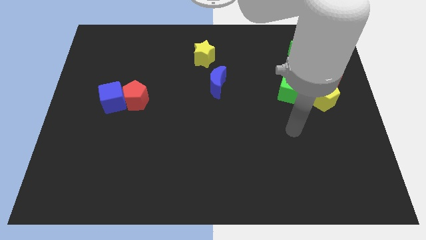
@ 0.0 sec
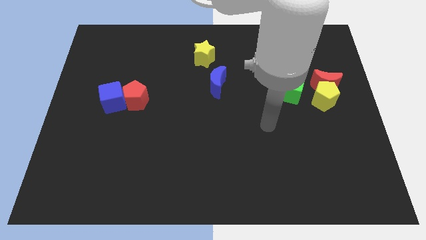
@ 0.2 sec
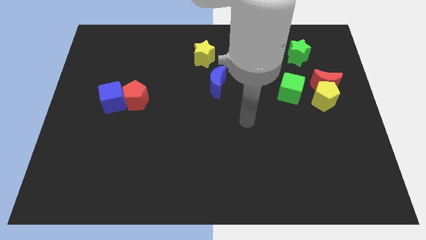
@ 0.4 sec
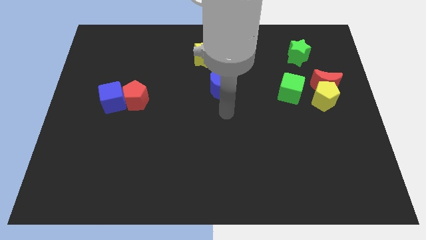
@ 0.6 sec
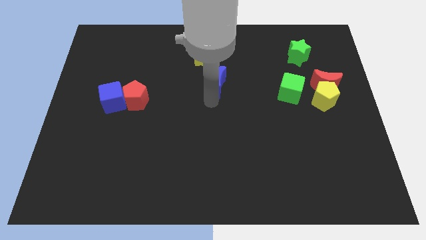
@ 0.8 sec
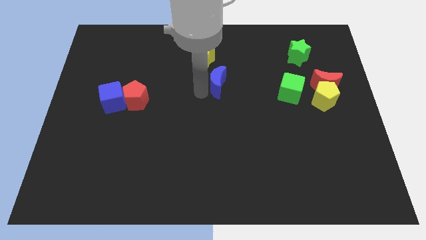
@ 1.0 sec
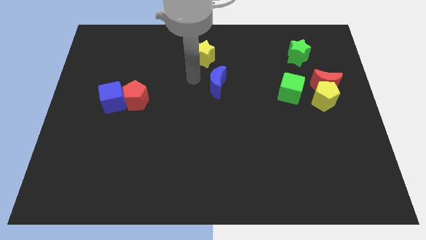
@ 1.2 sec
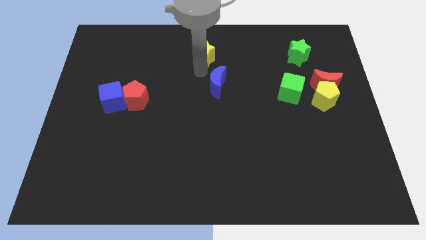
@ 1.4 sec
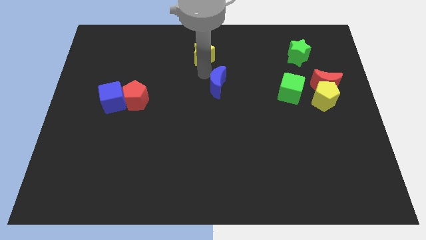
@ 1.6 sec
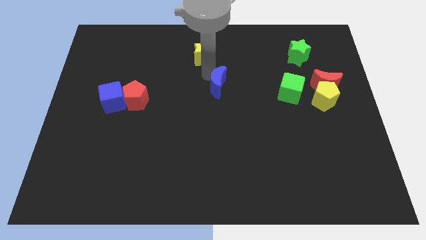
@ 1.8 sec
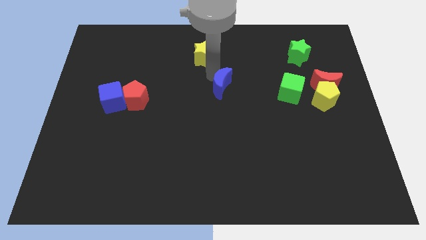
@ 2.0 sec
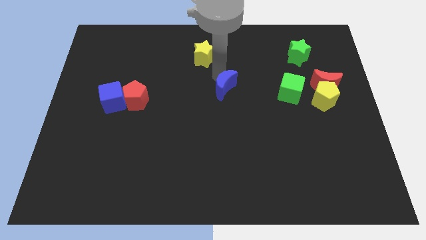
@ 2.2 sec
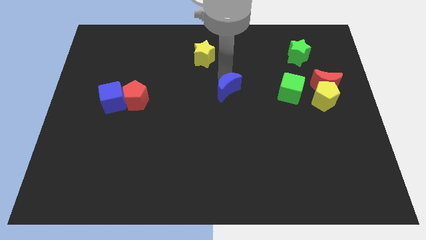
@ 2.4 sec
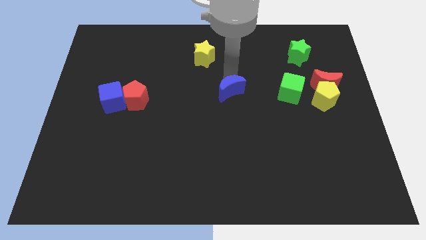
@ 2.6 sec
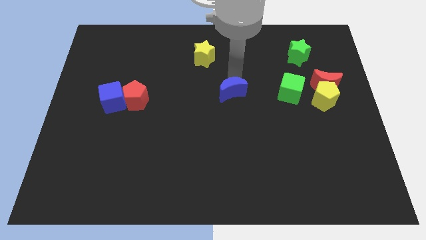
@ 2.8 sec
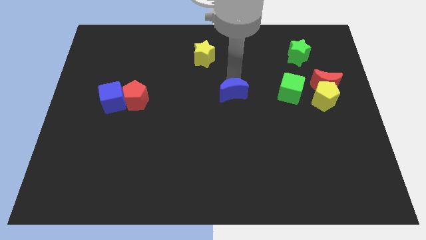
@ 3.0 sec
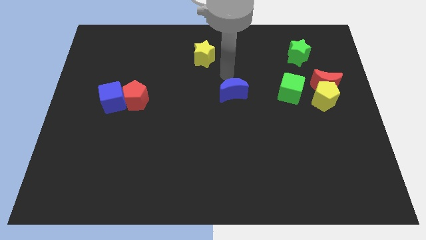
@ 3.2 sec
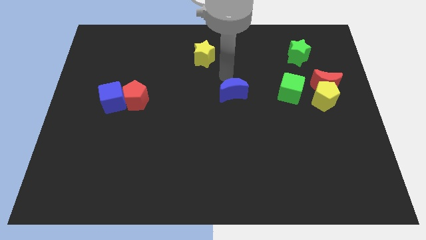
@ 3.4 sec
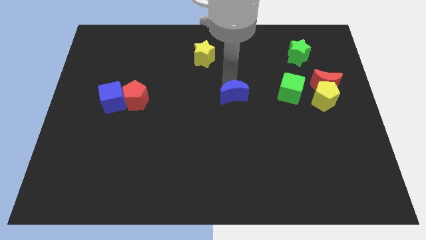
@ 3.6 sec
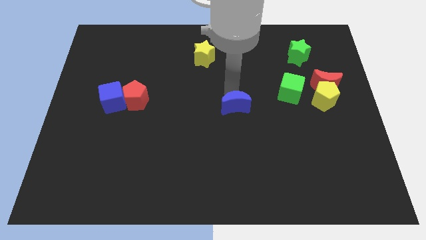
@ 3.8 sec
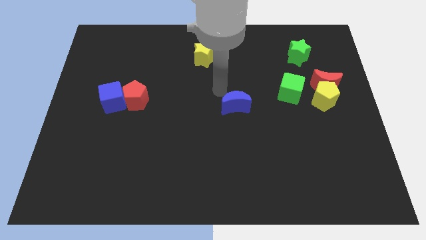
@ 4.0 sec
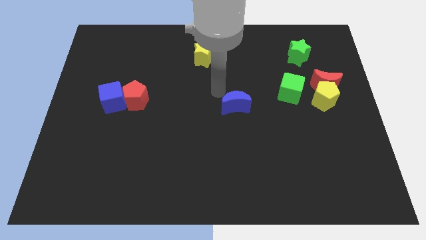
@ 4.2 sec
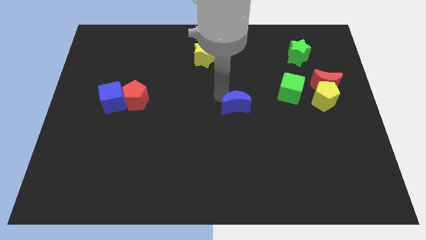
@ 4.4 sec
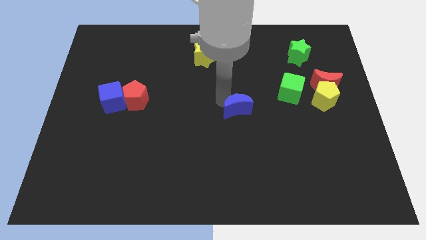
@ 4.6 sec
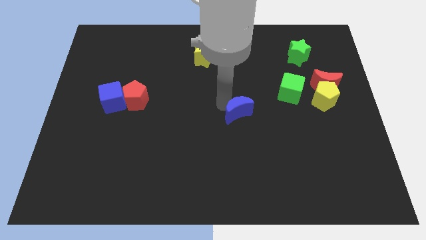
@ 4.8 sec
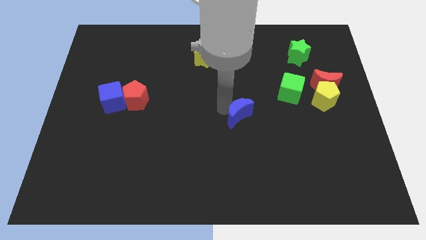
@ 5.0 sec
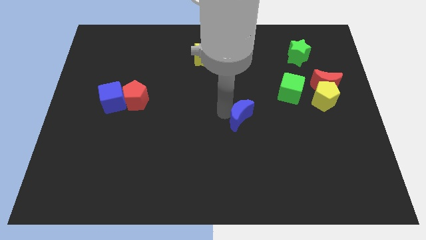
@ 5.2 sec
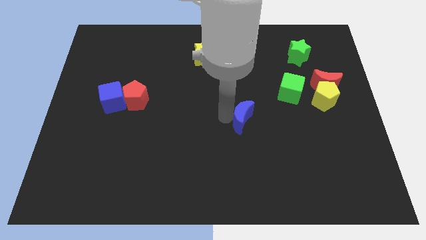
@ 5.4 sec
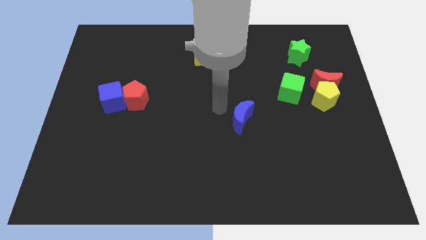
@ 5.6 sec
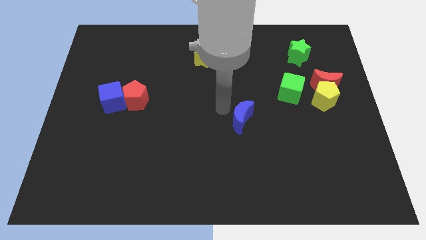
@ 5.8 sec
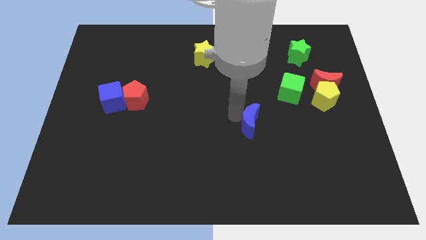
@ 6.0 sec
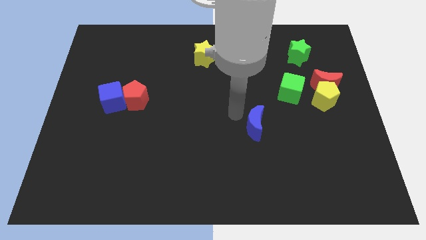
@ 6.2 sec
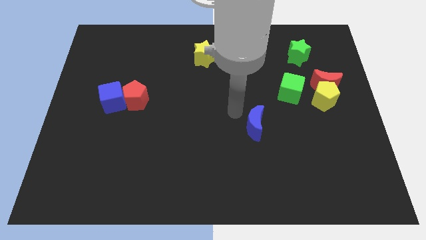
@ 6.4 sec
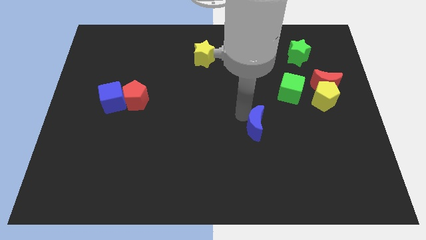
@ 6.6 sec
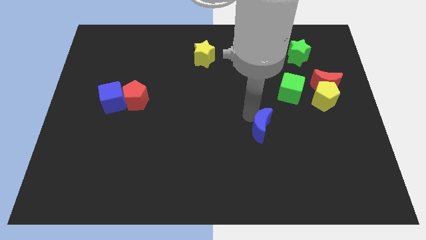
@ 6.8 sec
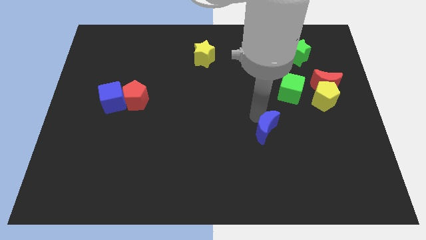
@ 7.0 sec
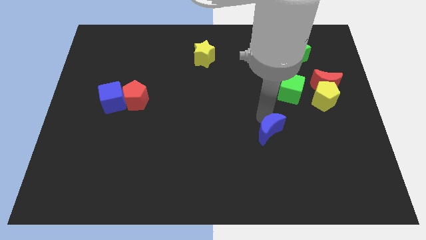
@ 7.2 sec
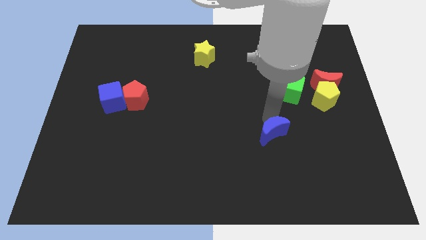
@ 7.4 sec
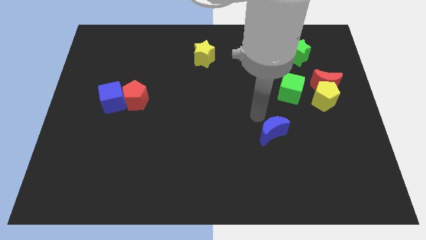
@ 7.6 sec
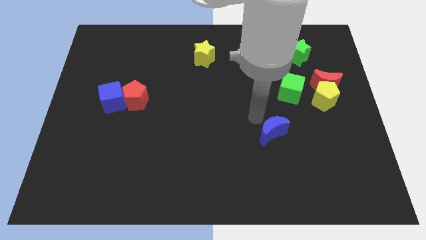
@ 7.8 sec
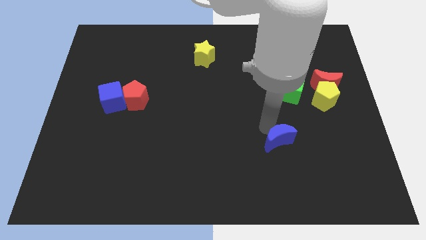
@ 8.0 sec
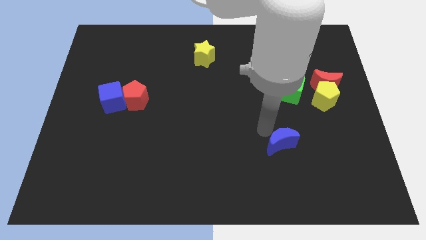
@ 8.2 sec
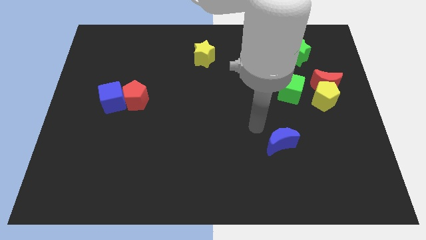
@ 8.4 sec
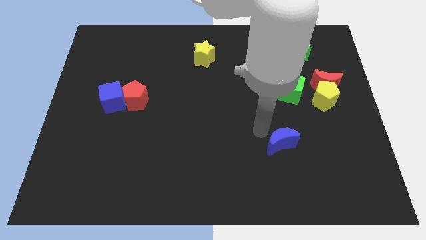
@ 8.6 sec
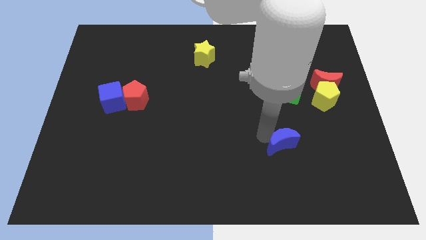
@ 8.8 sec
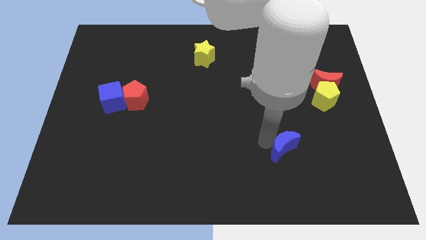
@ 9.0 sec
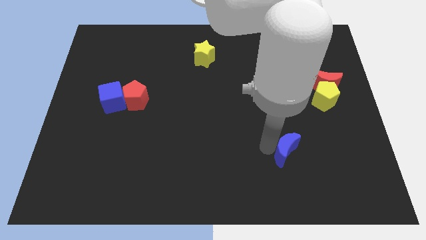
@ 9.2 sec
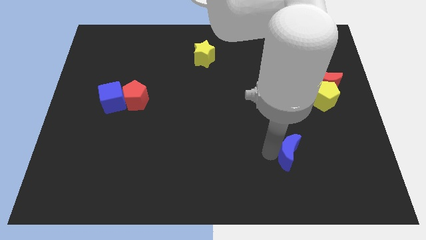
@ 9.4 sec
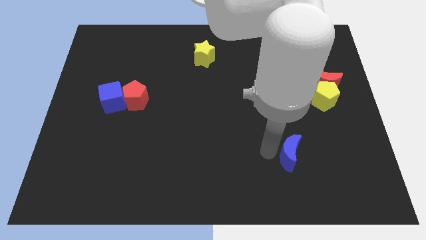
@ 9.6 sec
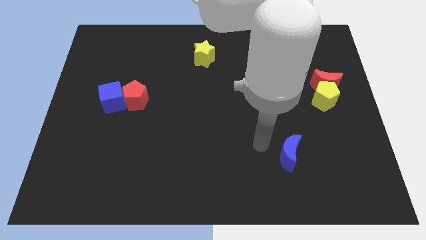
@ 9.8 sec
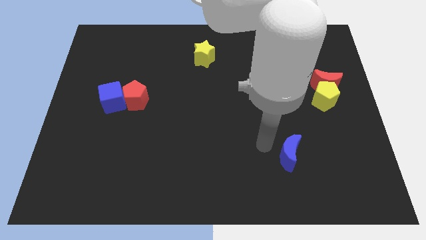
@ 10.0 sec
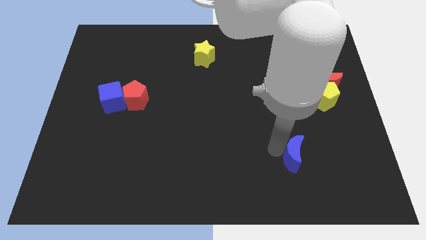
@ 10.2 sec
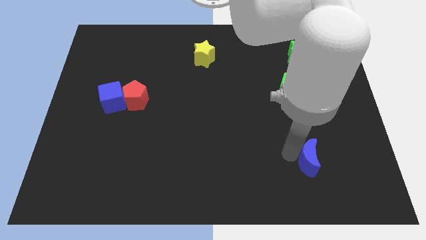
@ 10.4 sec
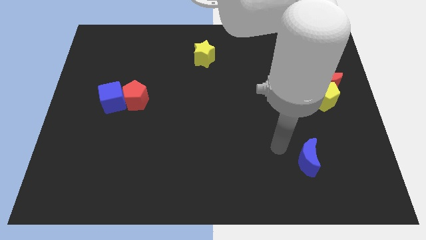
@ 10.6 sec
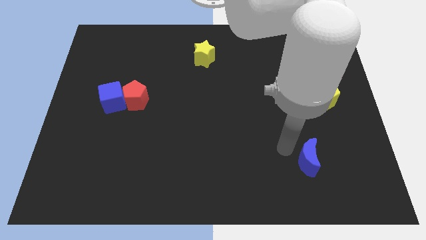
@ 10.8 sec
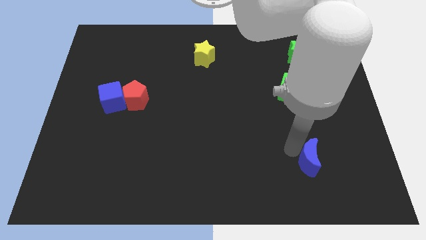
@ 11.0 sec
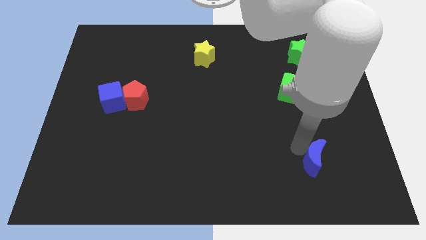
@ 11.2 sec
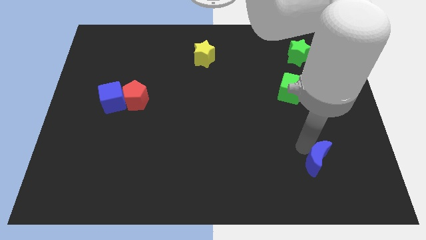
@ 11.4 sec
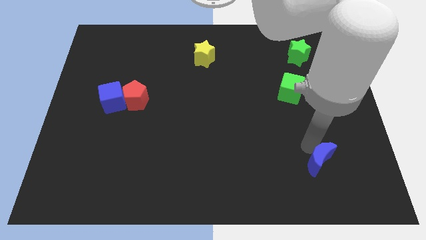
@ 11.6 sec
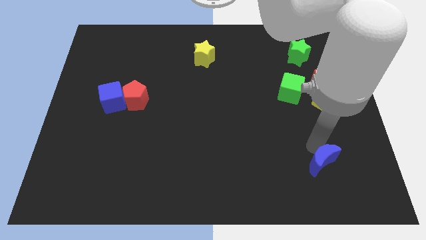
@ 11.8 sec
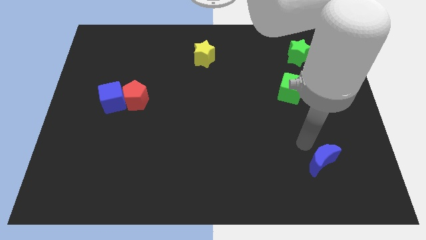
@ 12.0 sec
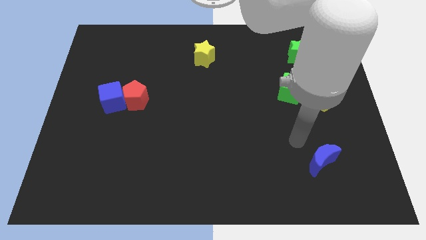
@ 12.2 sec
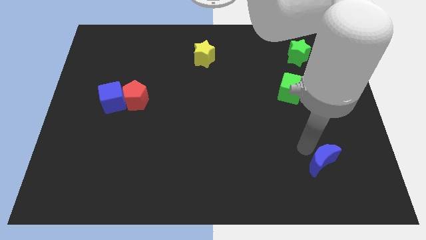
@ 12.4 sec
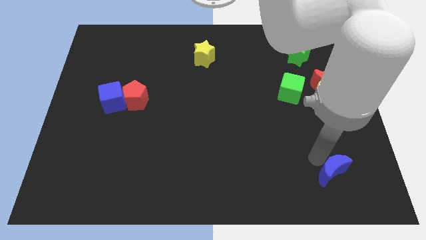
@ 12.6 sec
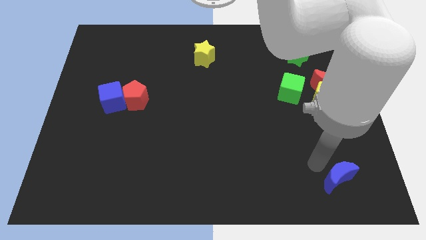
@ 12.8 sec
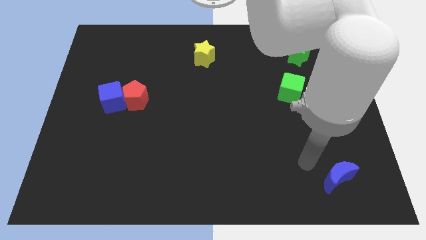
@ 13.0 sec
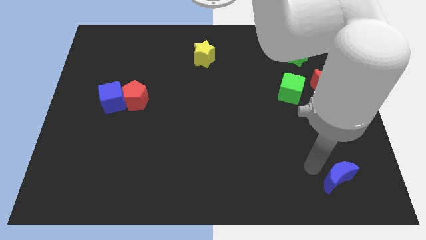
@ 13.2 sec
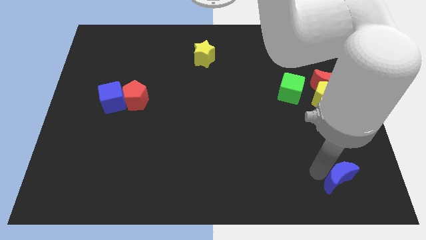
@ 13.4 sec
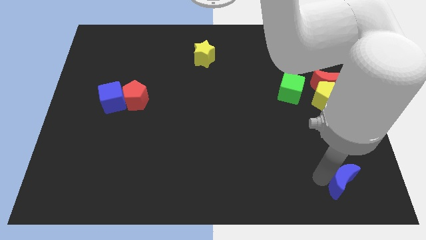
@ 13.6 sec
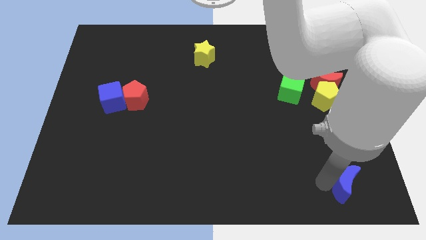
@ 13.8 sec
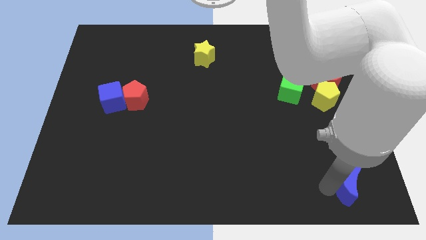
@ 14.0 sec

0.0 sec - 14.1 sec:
move the blue moon to the bottom right of the board
